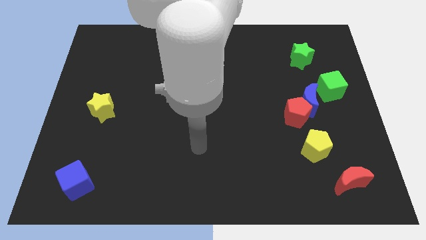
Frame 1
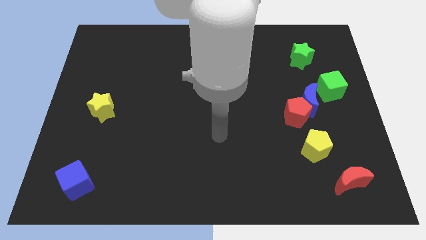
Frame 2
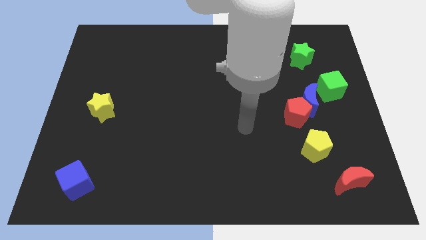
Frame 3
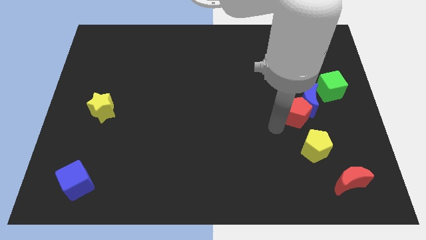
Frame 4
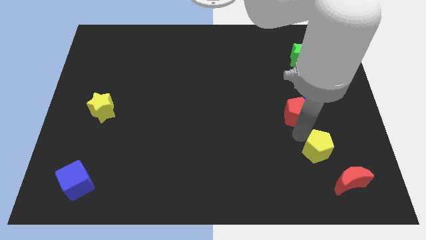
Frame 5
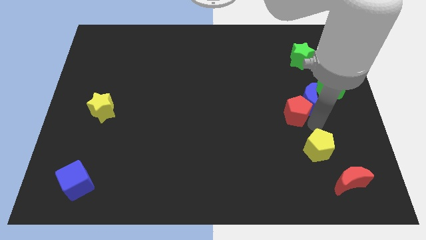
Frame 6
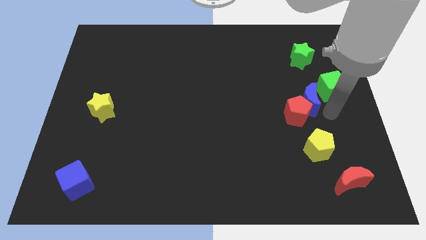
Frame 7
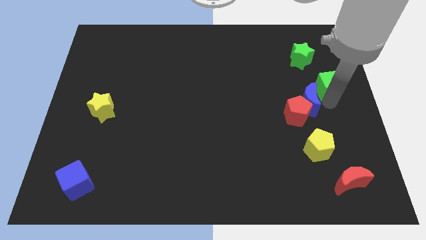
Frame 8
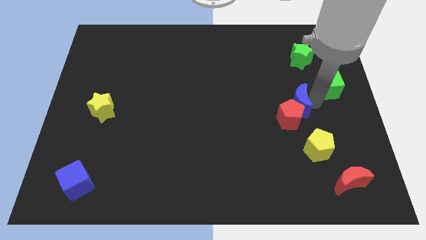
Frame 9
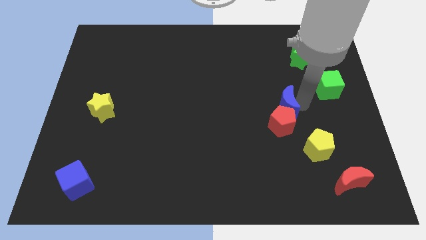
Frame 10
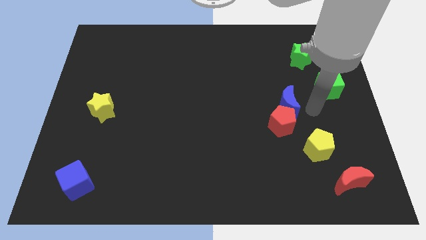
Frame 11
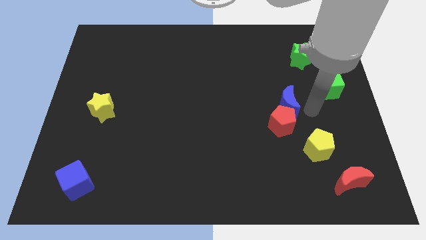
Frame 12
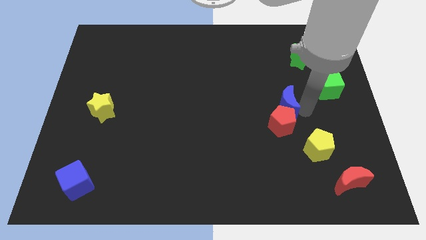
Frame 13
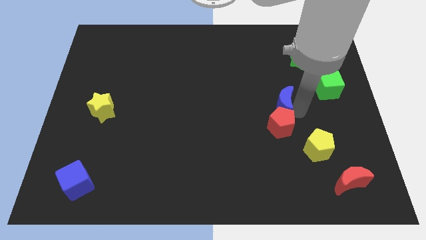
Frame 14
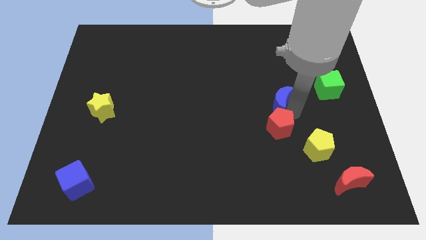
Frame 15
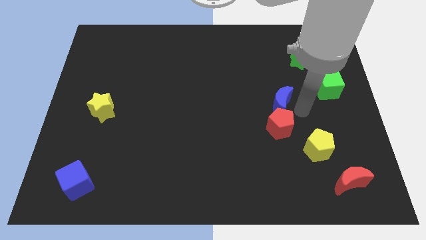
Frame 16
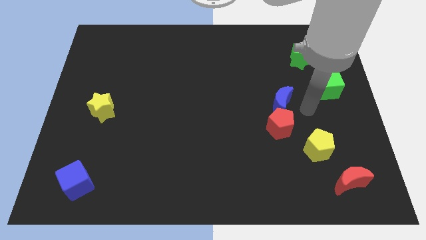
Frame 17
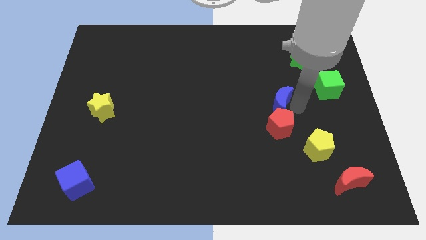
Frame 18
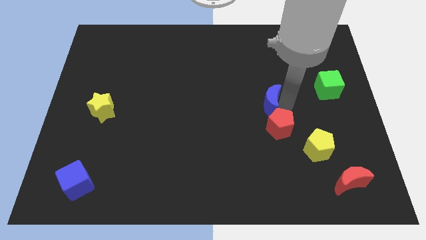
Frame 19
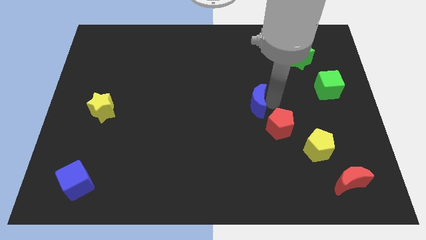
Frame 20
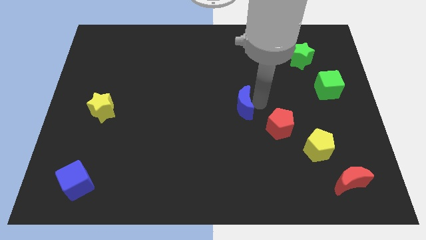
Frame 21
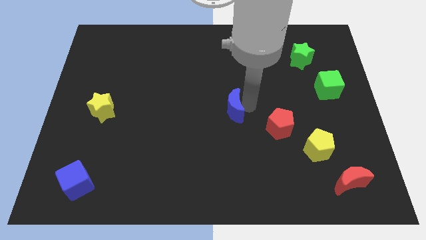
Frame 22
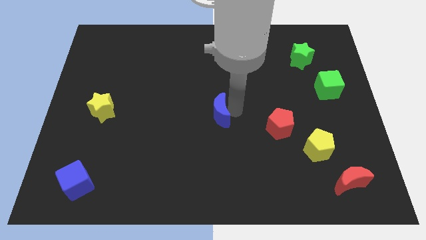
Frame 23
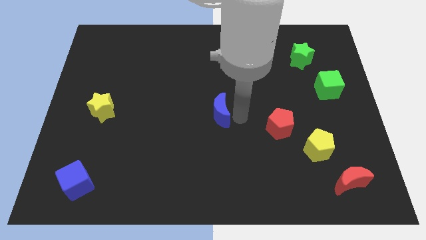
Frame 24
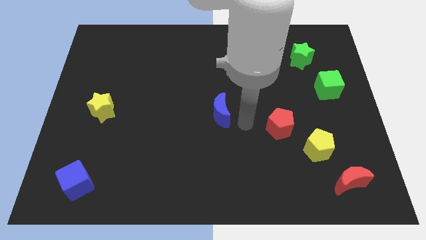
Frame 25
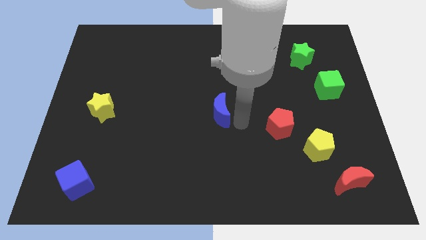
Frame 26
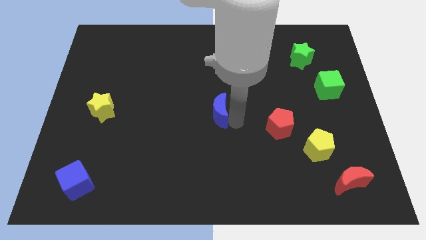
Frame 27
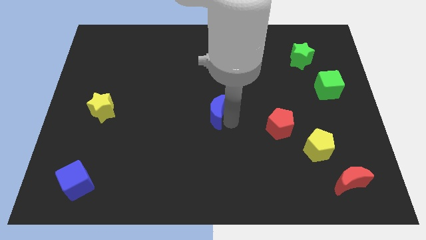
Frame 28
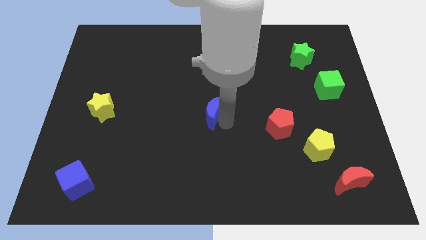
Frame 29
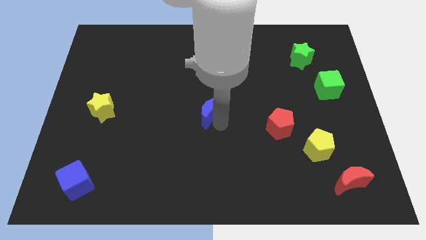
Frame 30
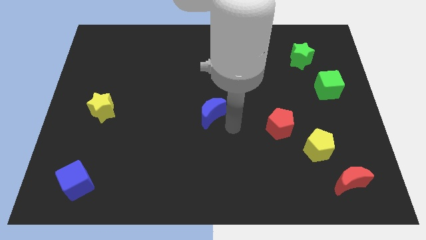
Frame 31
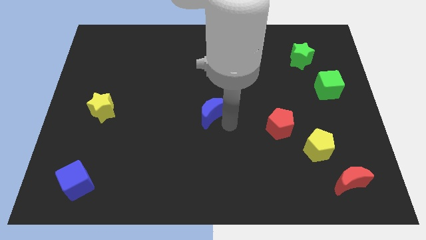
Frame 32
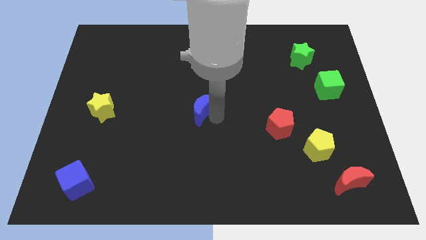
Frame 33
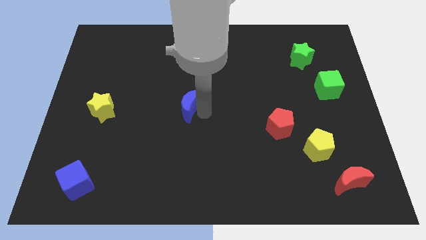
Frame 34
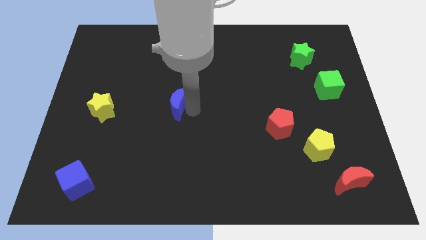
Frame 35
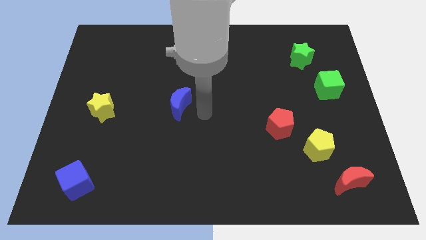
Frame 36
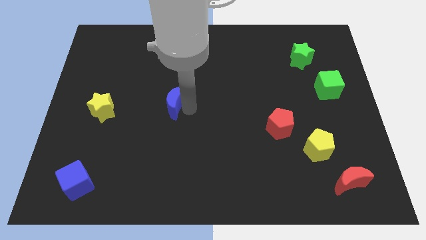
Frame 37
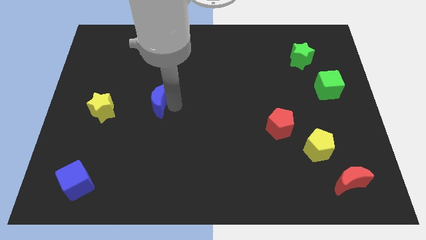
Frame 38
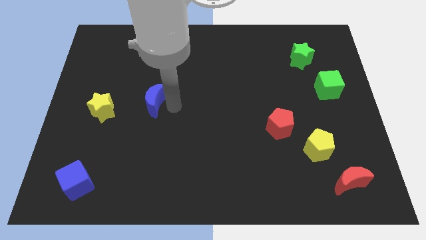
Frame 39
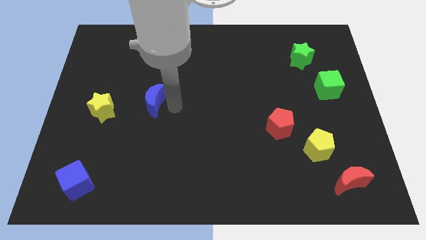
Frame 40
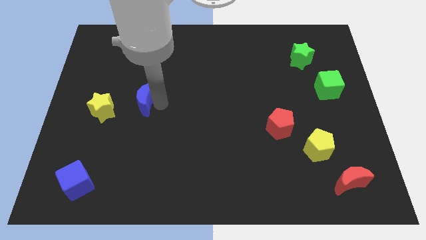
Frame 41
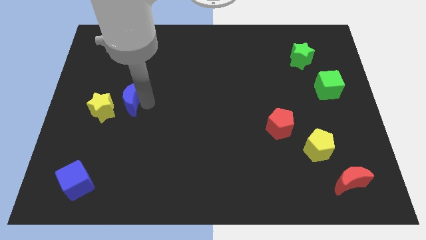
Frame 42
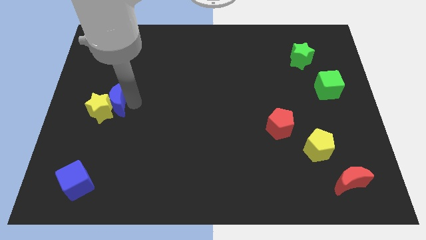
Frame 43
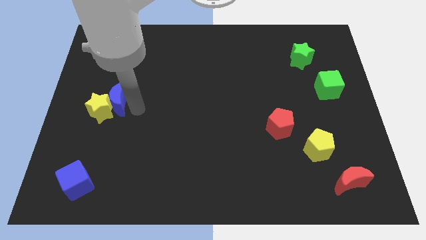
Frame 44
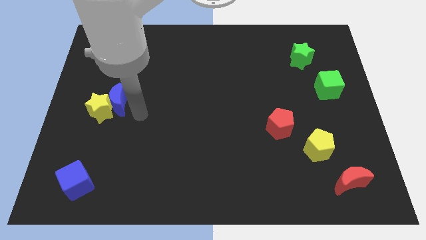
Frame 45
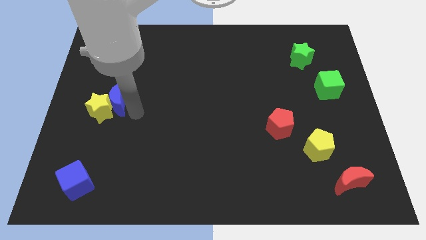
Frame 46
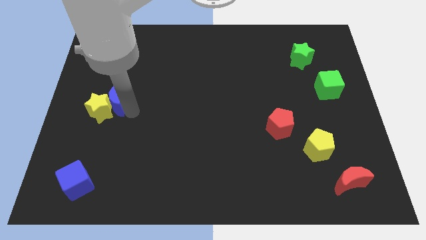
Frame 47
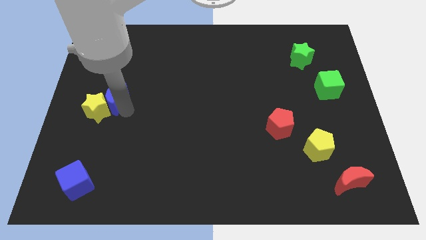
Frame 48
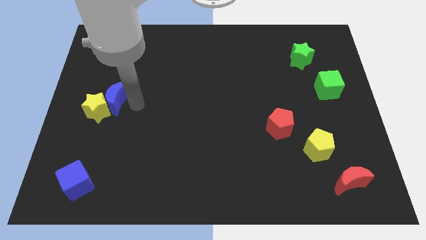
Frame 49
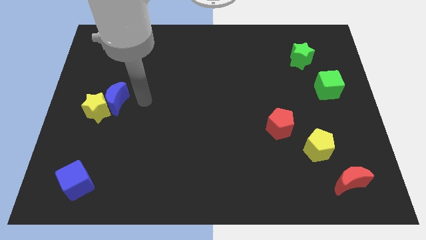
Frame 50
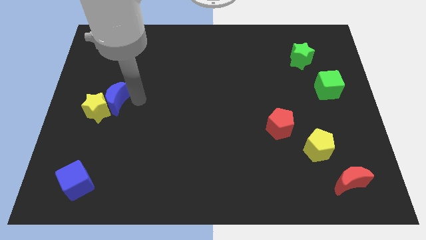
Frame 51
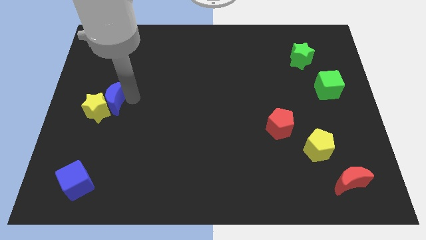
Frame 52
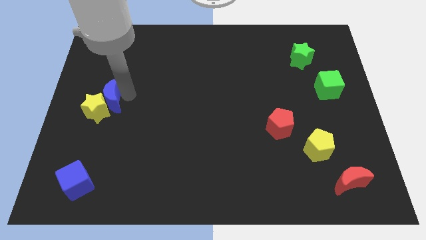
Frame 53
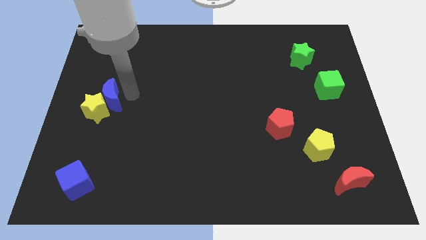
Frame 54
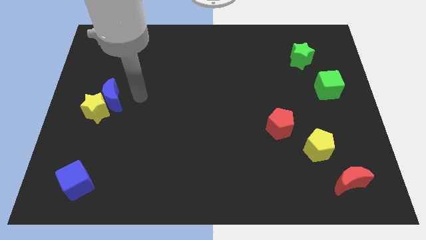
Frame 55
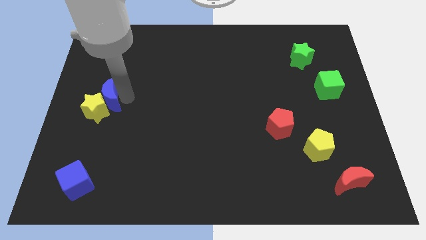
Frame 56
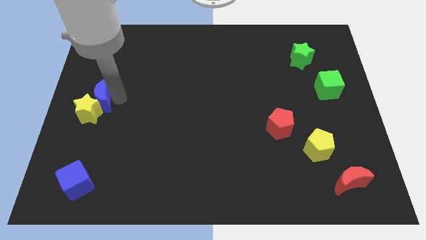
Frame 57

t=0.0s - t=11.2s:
slide the blue moon to the center left

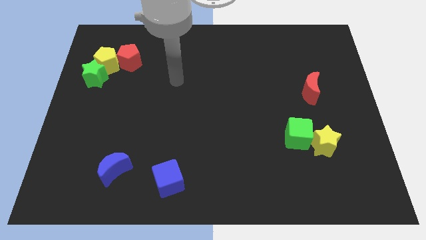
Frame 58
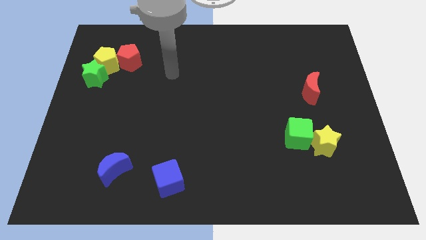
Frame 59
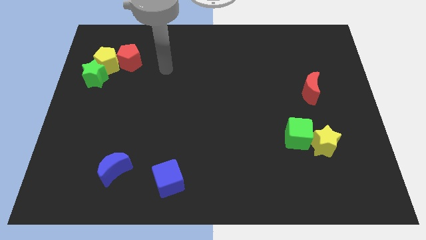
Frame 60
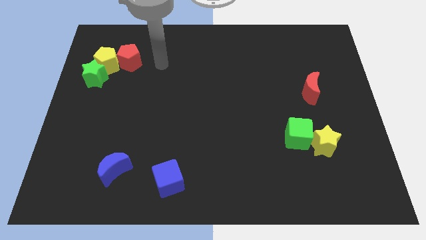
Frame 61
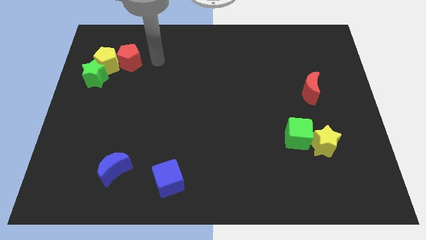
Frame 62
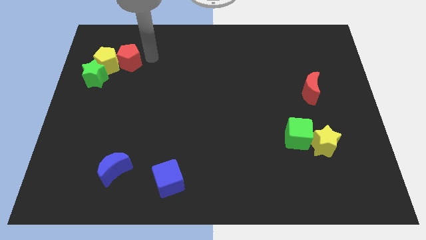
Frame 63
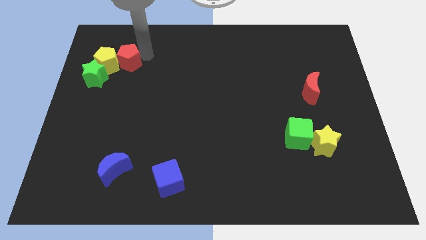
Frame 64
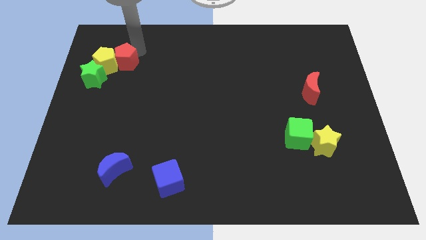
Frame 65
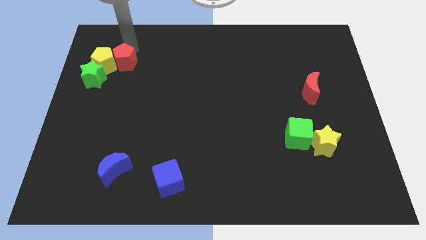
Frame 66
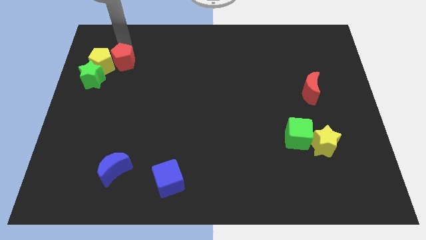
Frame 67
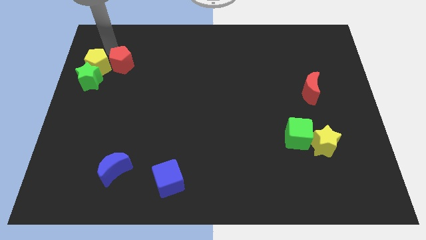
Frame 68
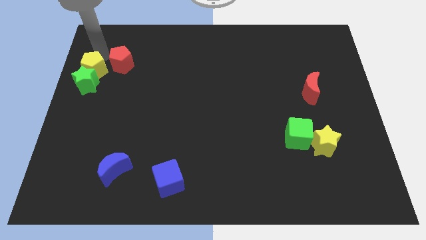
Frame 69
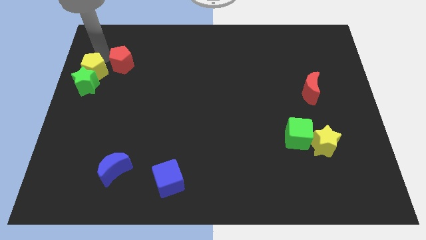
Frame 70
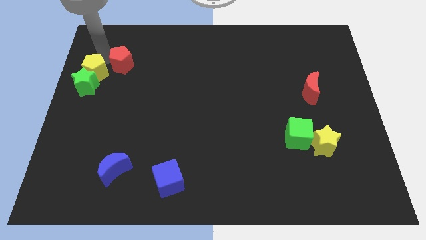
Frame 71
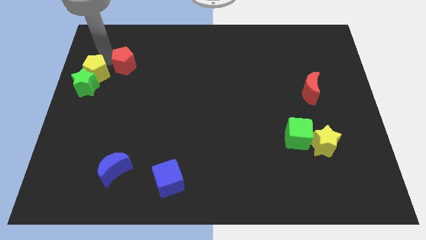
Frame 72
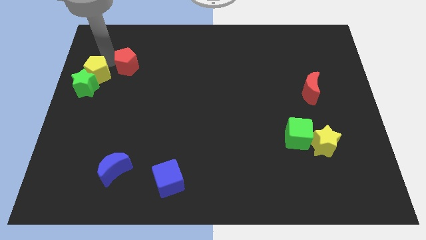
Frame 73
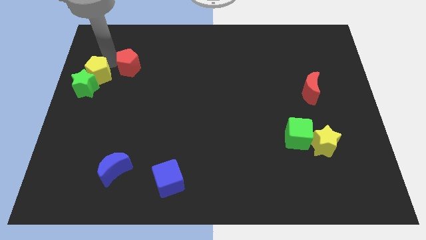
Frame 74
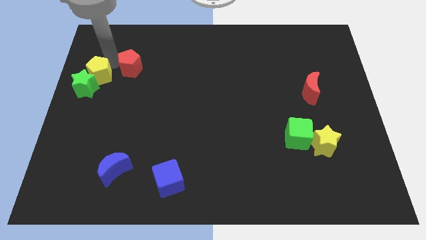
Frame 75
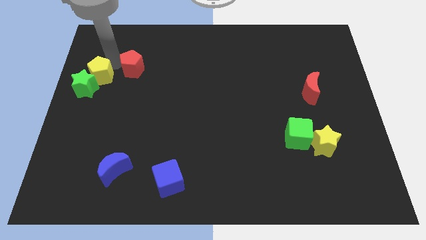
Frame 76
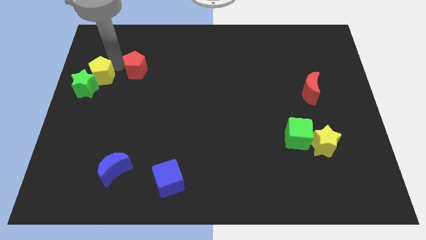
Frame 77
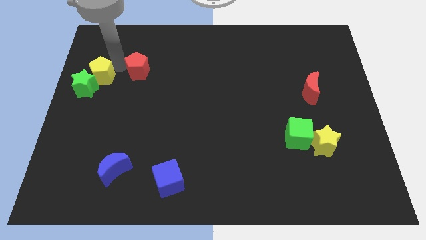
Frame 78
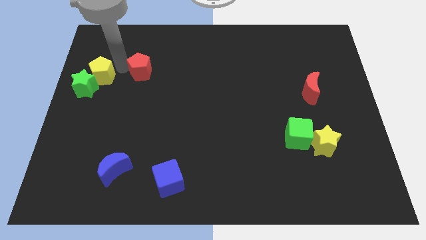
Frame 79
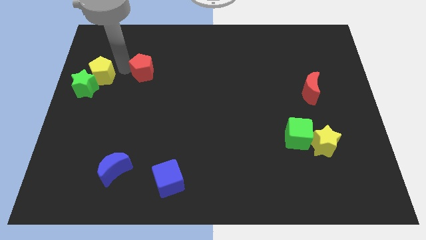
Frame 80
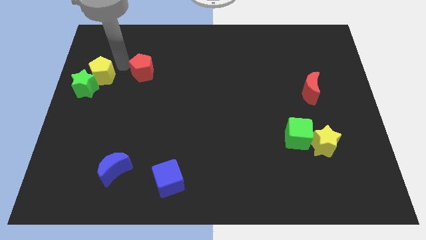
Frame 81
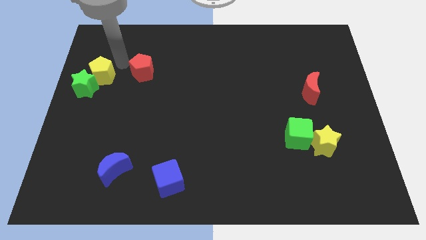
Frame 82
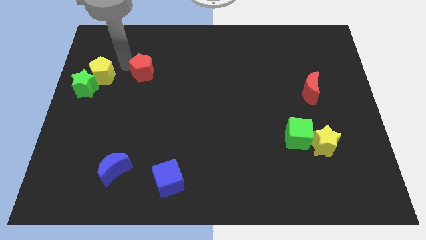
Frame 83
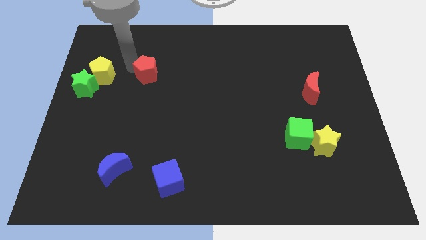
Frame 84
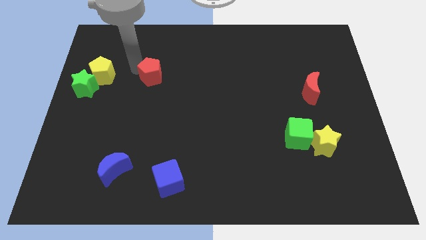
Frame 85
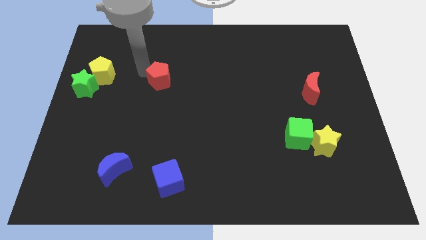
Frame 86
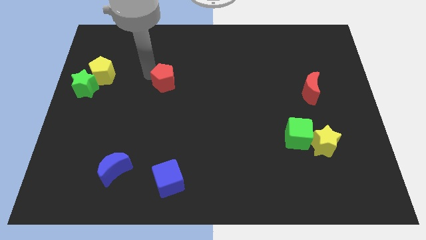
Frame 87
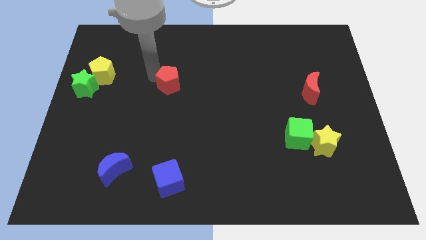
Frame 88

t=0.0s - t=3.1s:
push the red pentagon to the center of the board
